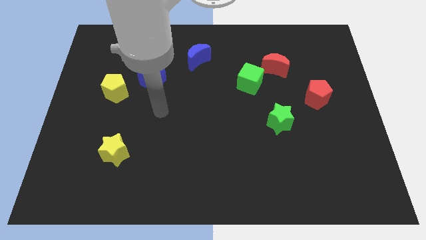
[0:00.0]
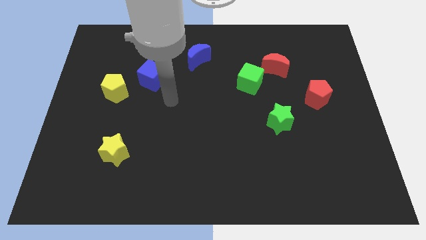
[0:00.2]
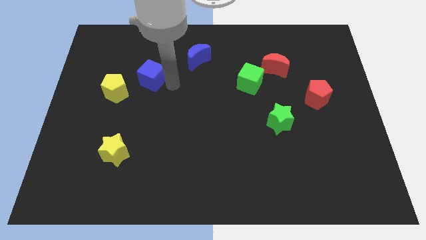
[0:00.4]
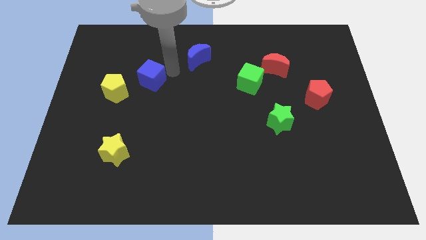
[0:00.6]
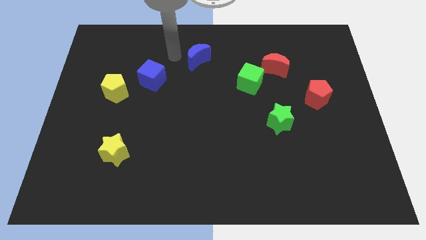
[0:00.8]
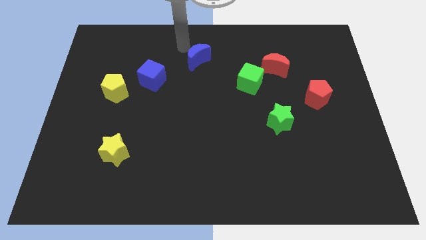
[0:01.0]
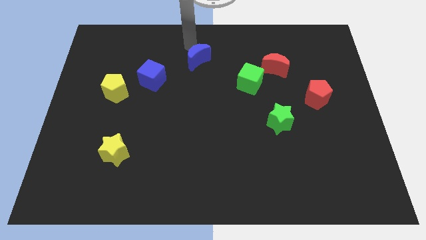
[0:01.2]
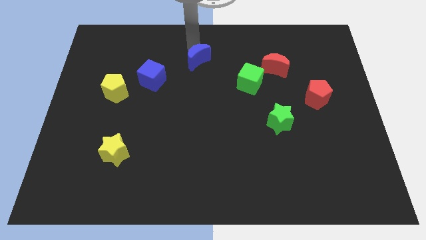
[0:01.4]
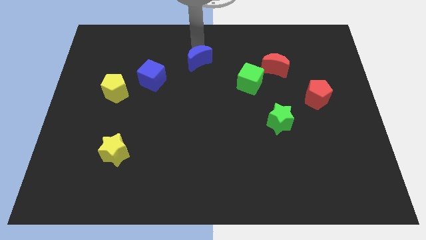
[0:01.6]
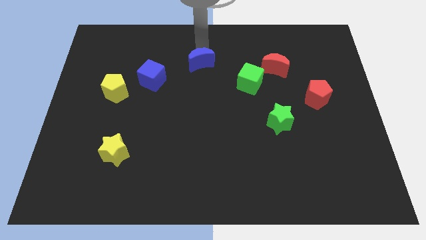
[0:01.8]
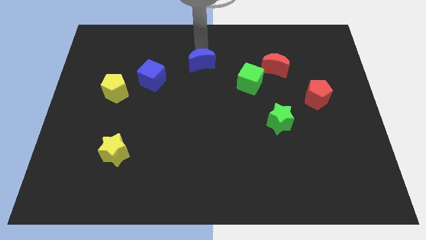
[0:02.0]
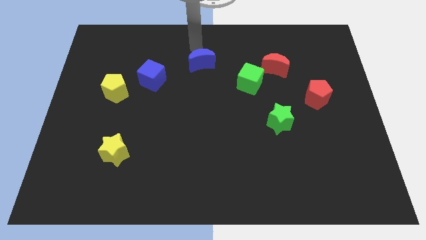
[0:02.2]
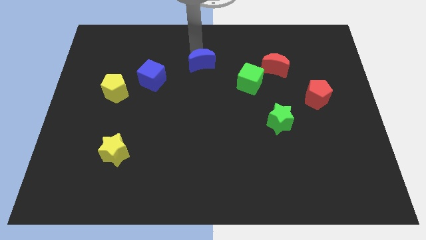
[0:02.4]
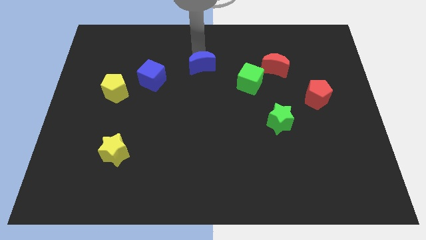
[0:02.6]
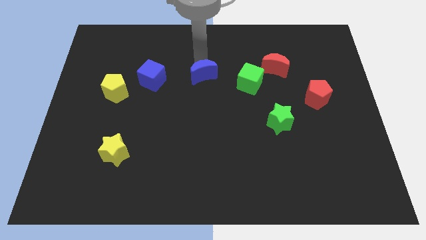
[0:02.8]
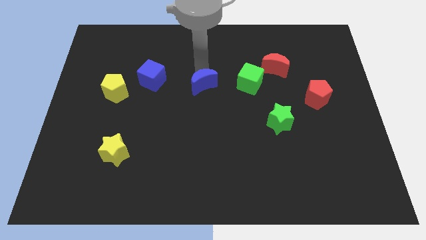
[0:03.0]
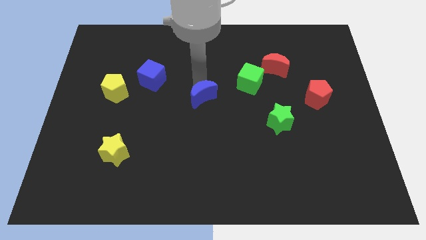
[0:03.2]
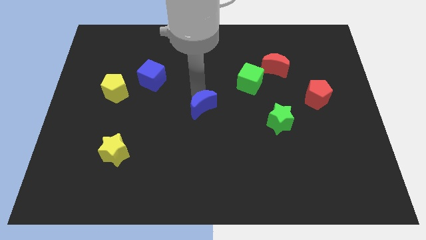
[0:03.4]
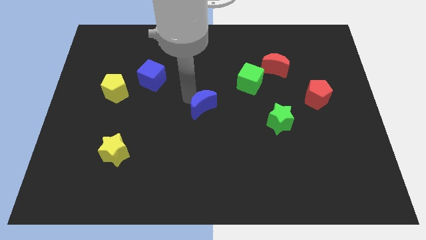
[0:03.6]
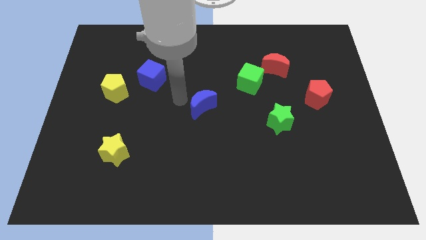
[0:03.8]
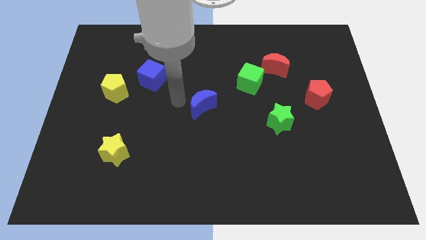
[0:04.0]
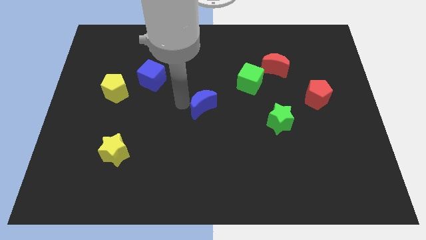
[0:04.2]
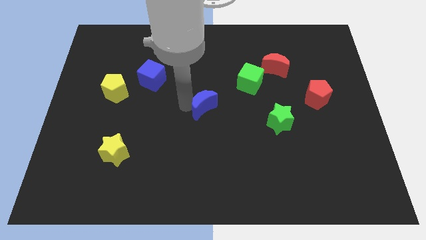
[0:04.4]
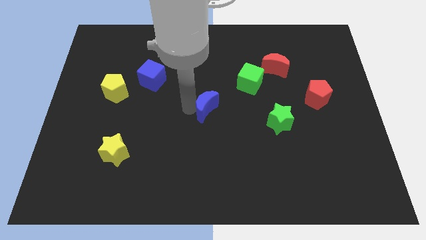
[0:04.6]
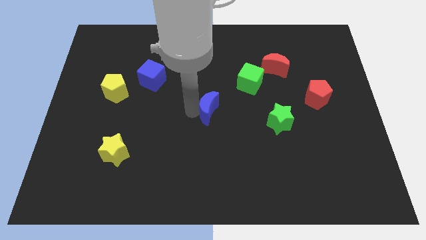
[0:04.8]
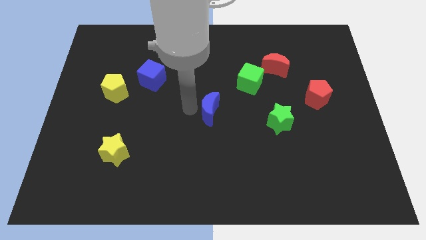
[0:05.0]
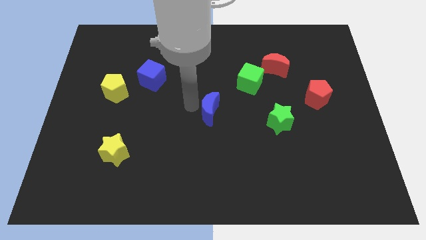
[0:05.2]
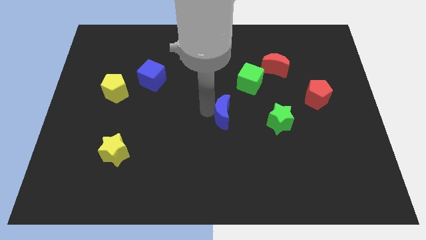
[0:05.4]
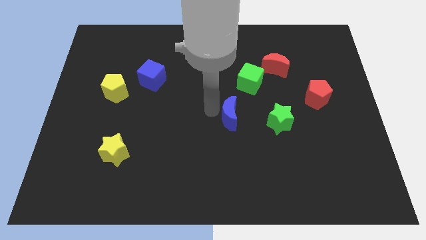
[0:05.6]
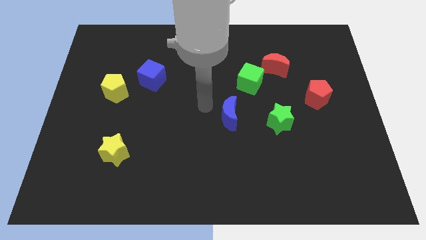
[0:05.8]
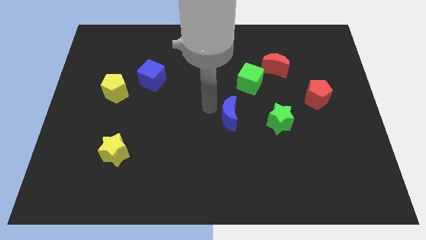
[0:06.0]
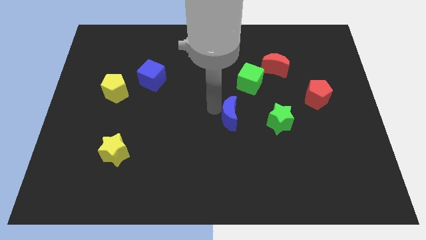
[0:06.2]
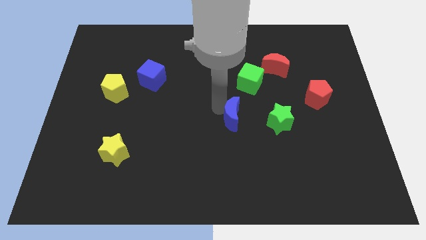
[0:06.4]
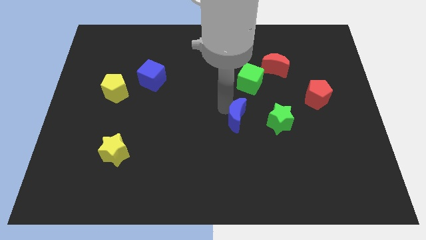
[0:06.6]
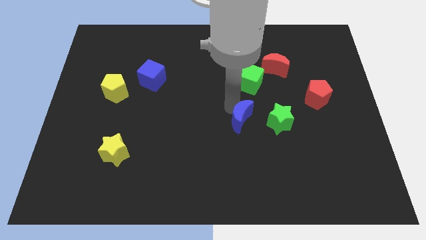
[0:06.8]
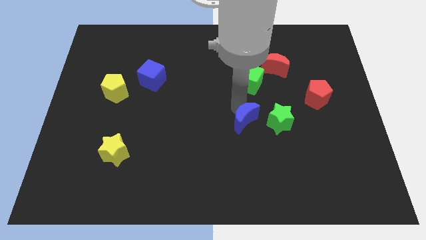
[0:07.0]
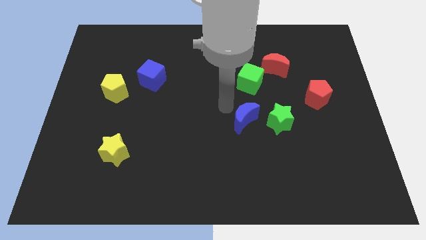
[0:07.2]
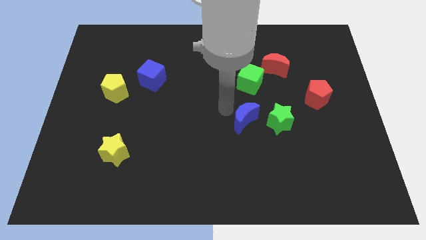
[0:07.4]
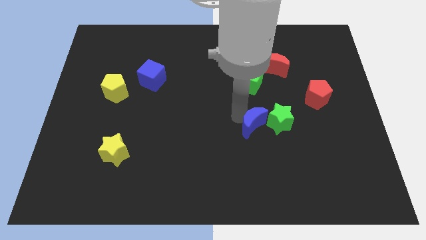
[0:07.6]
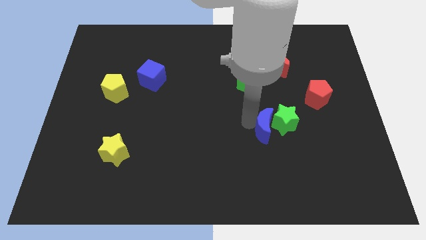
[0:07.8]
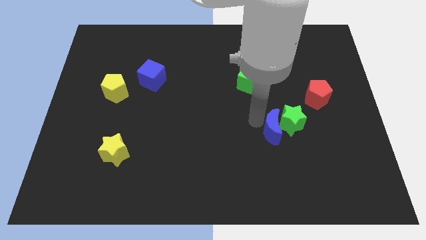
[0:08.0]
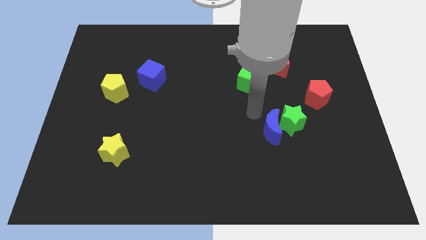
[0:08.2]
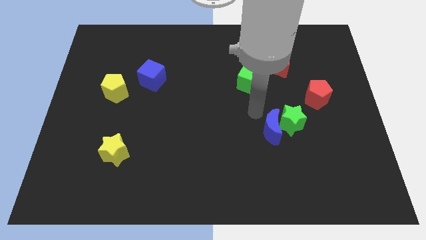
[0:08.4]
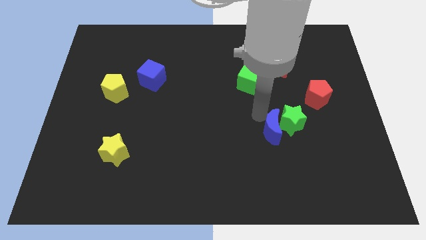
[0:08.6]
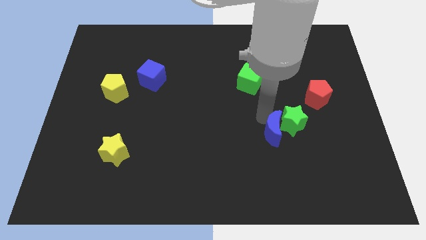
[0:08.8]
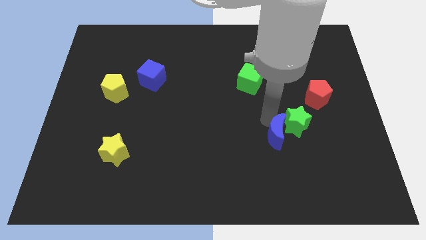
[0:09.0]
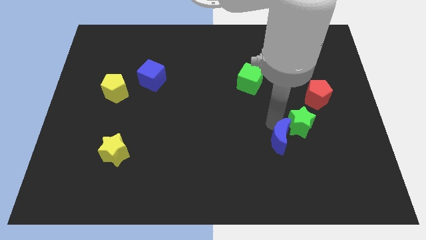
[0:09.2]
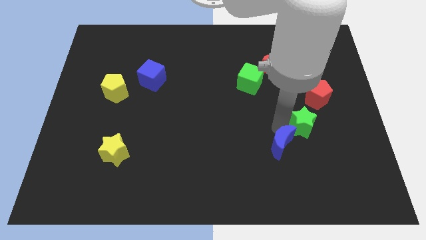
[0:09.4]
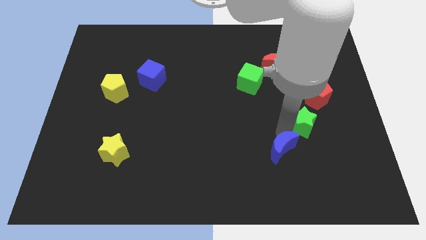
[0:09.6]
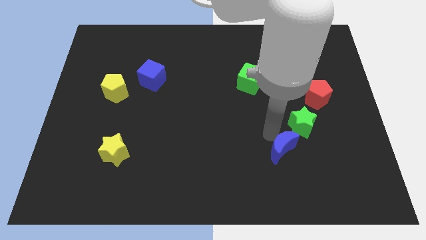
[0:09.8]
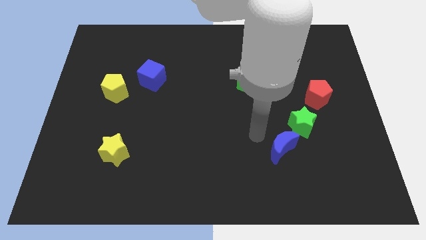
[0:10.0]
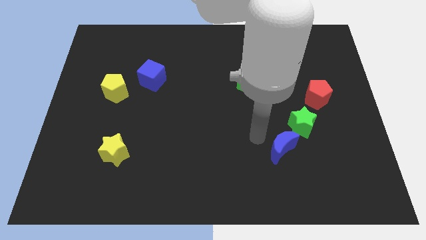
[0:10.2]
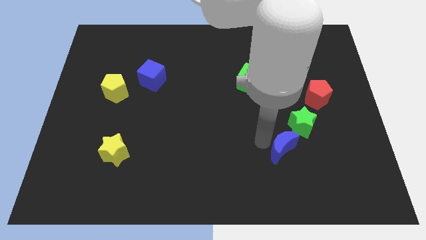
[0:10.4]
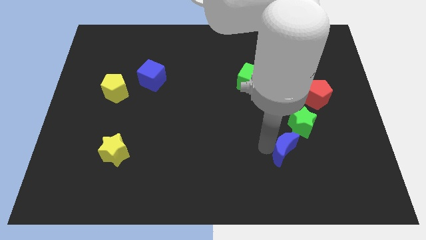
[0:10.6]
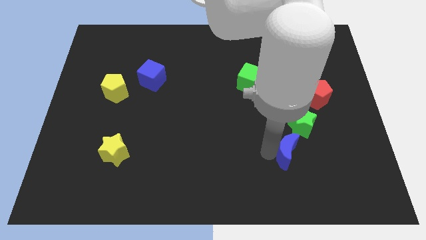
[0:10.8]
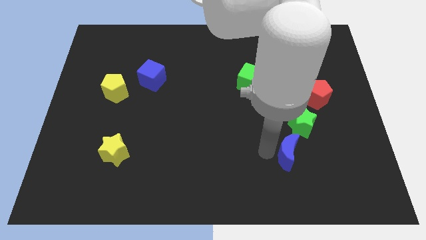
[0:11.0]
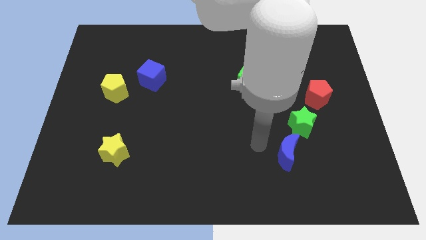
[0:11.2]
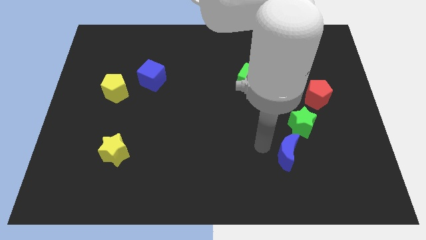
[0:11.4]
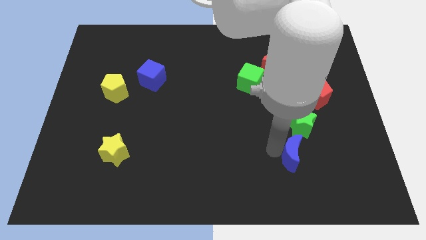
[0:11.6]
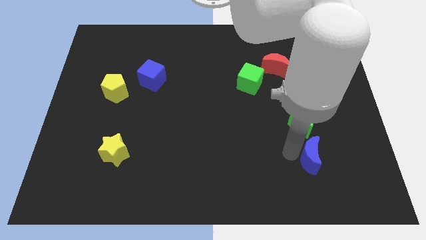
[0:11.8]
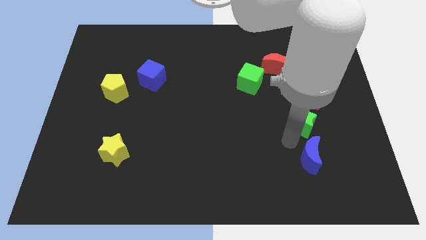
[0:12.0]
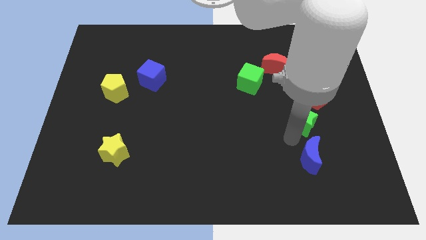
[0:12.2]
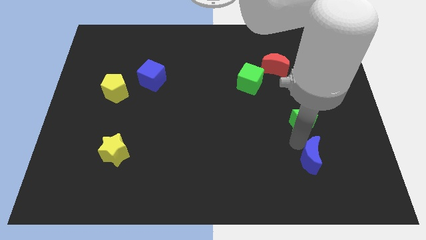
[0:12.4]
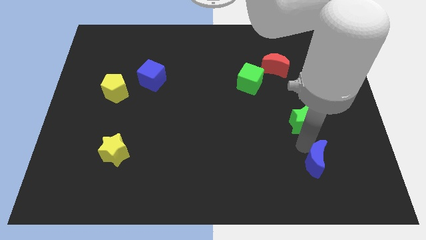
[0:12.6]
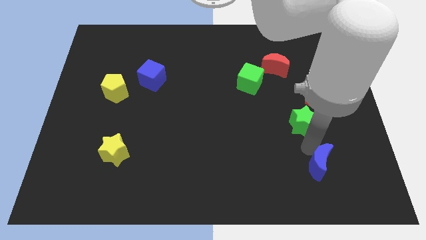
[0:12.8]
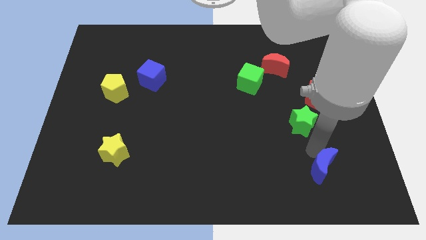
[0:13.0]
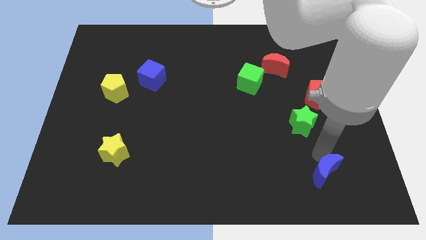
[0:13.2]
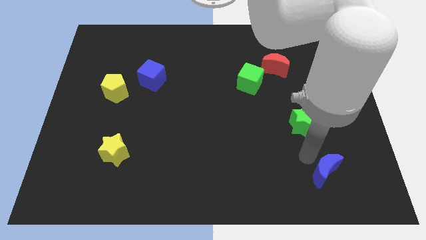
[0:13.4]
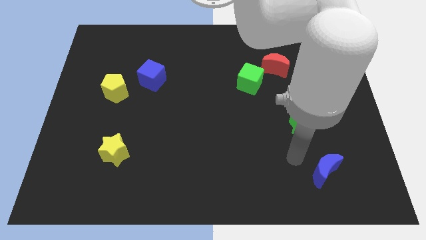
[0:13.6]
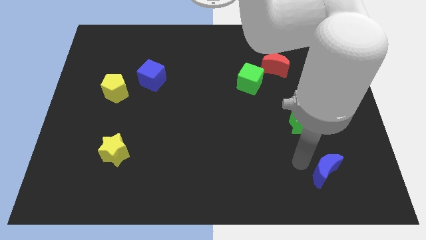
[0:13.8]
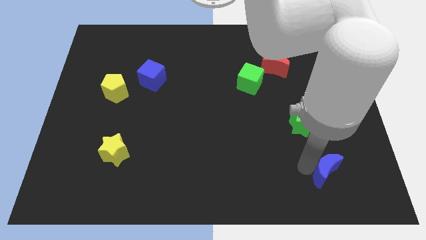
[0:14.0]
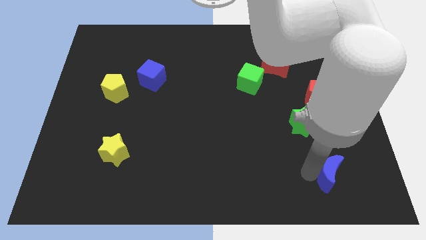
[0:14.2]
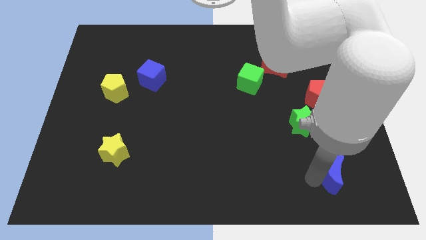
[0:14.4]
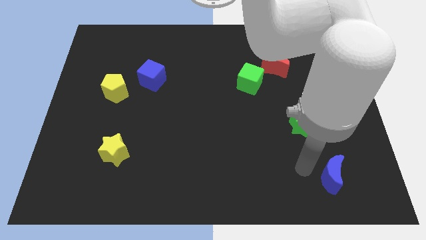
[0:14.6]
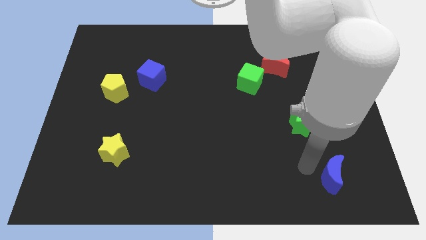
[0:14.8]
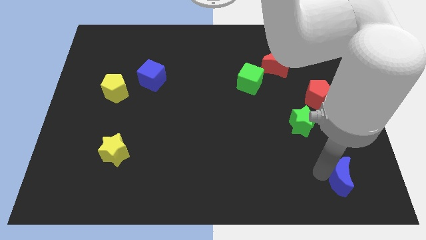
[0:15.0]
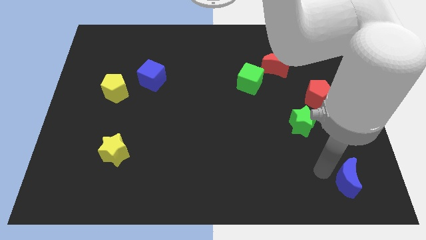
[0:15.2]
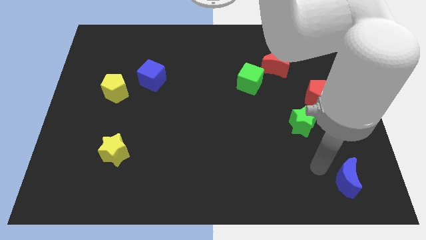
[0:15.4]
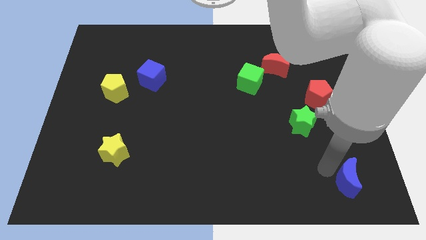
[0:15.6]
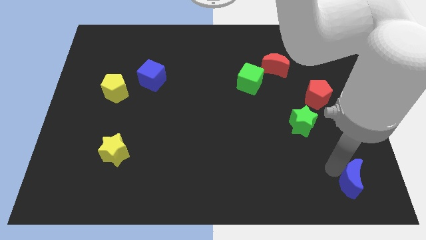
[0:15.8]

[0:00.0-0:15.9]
push the blue moon to the bottom right of the board
